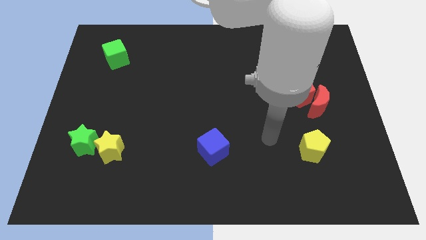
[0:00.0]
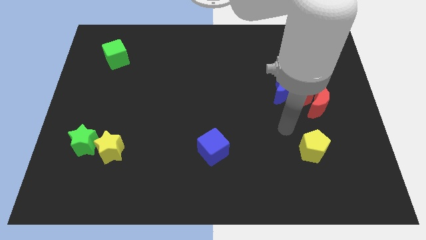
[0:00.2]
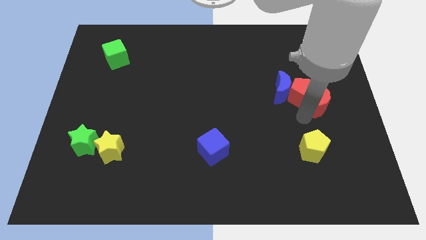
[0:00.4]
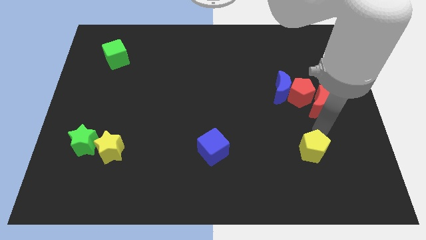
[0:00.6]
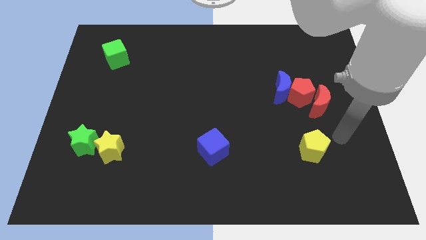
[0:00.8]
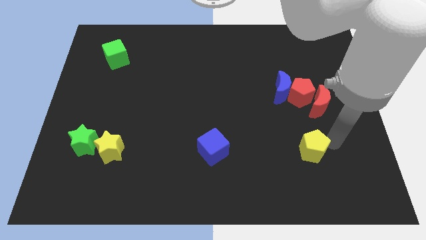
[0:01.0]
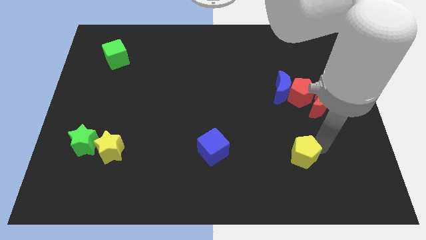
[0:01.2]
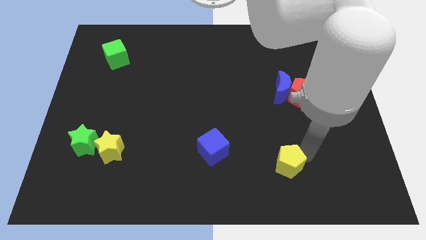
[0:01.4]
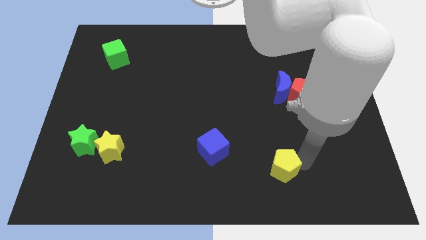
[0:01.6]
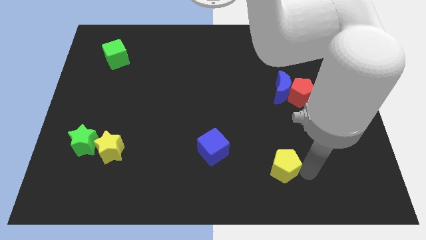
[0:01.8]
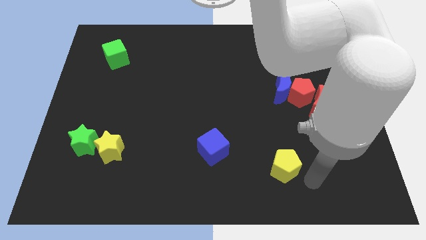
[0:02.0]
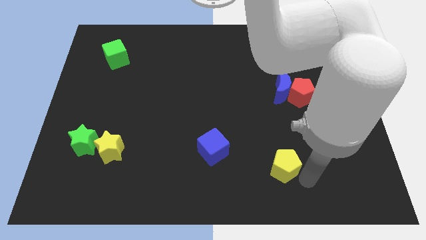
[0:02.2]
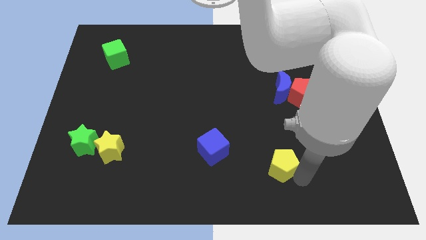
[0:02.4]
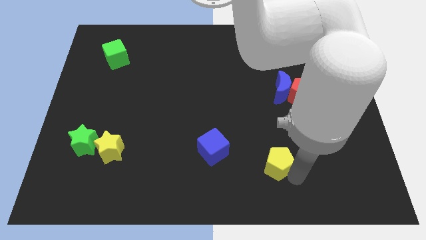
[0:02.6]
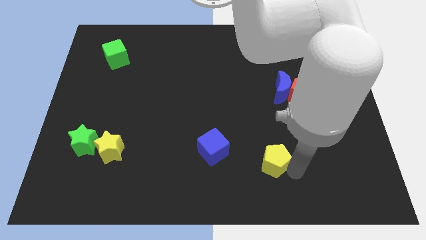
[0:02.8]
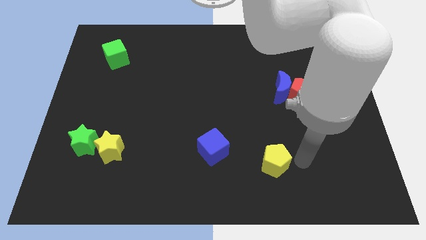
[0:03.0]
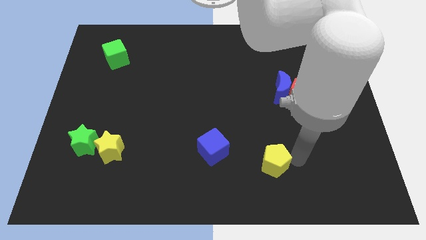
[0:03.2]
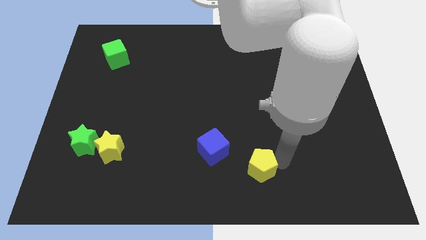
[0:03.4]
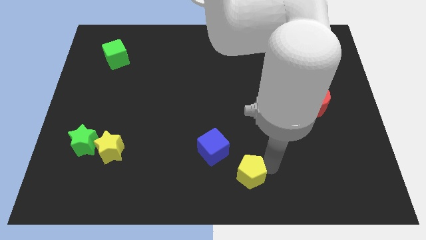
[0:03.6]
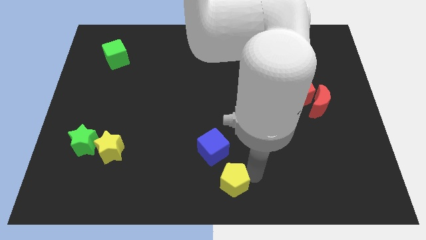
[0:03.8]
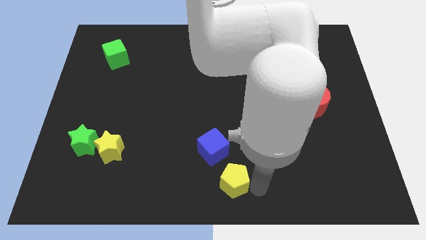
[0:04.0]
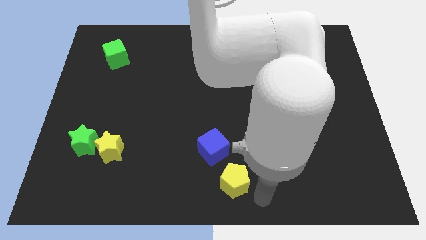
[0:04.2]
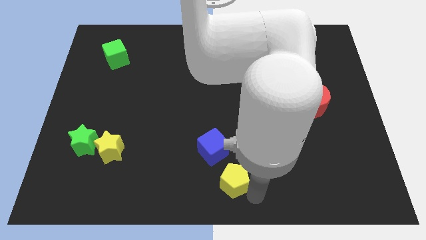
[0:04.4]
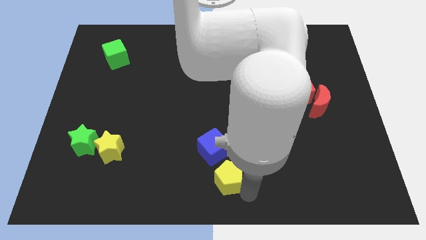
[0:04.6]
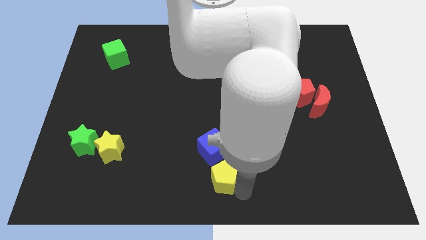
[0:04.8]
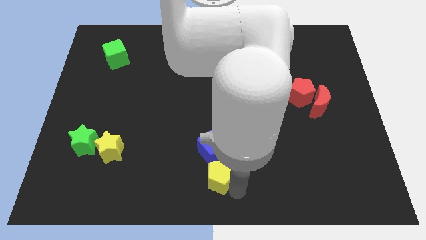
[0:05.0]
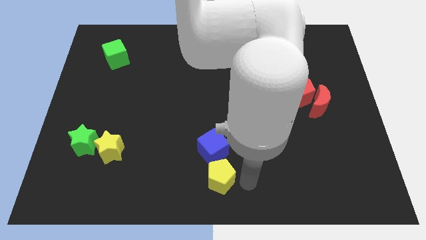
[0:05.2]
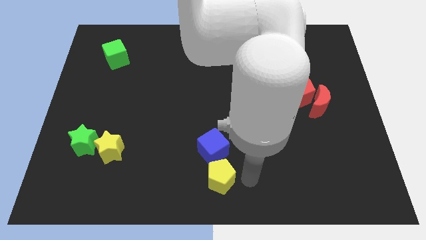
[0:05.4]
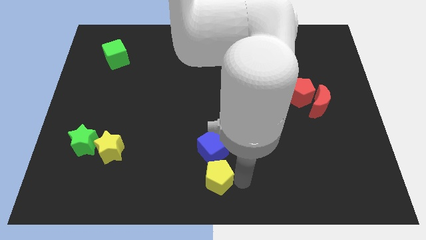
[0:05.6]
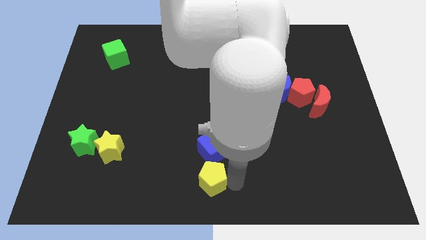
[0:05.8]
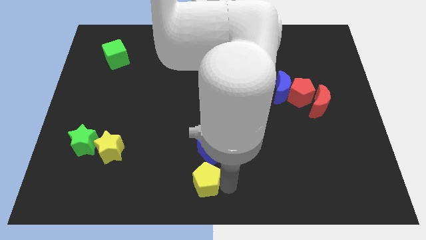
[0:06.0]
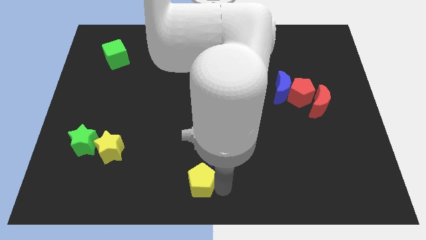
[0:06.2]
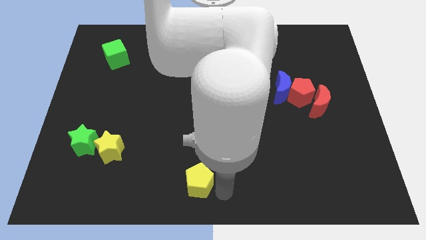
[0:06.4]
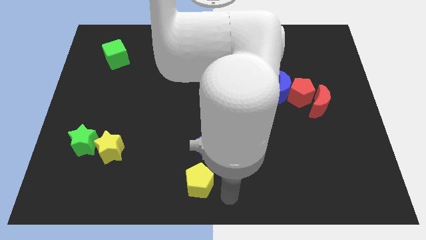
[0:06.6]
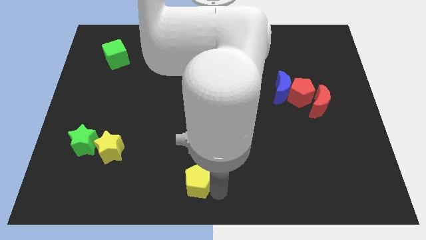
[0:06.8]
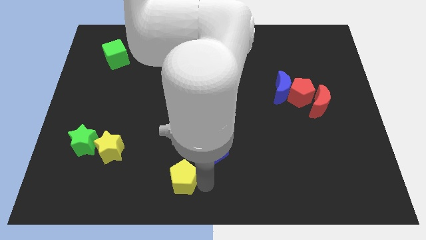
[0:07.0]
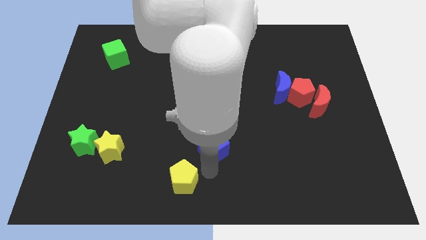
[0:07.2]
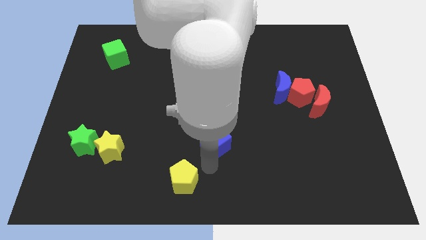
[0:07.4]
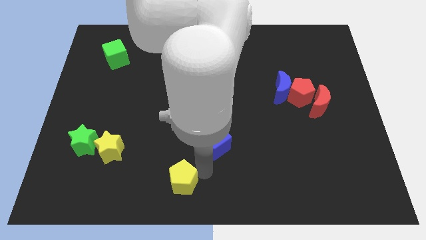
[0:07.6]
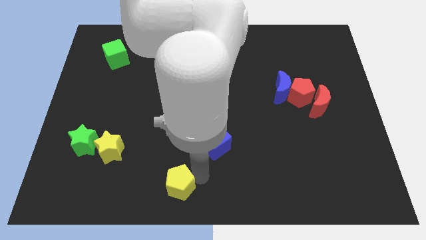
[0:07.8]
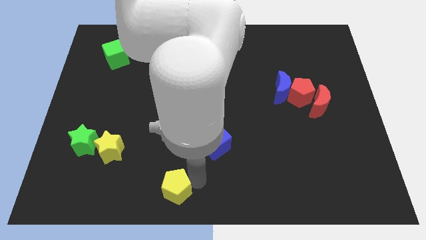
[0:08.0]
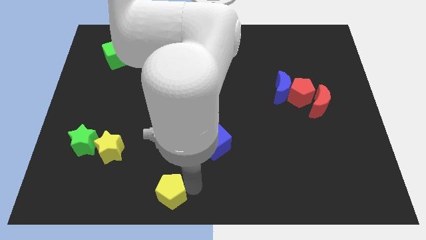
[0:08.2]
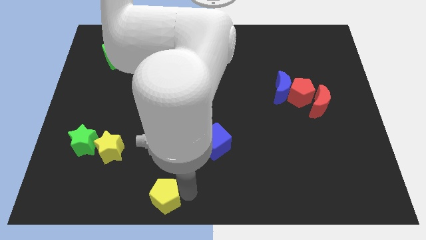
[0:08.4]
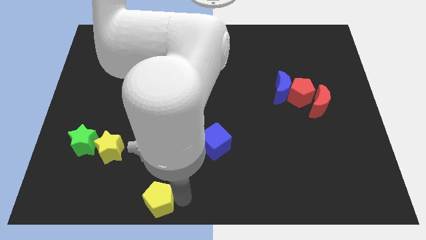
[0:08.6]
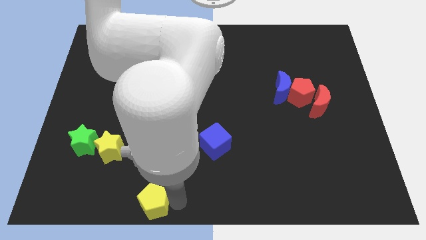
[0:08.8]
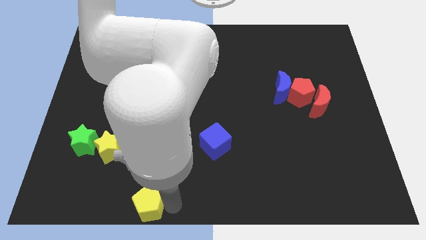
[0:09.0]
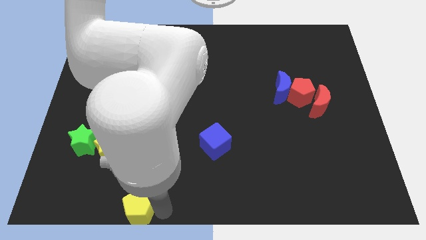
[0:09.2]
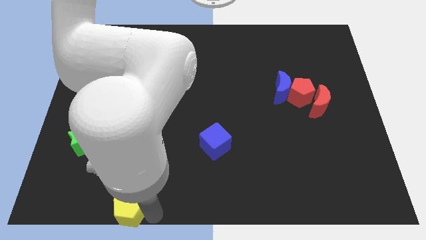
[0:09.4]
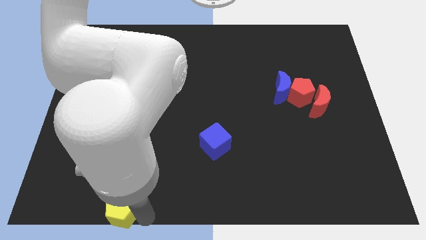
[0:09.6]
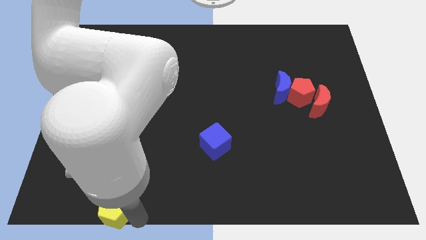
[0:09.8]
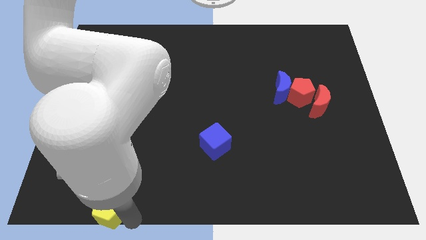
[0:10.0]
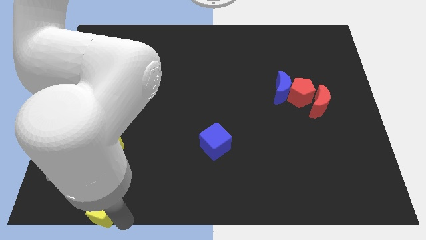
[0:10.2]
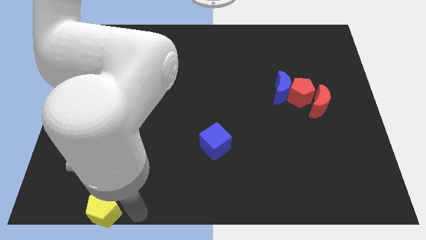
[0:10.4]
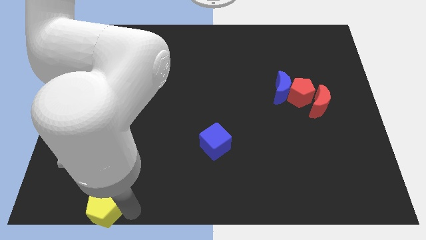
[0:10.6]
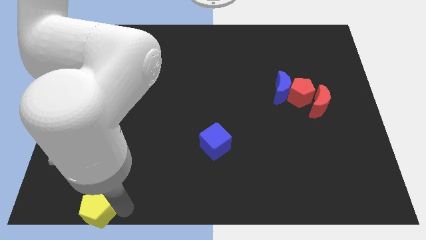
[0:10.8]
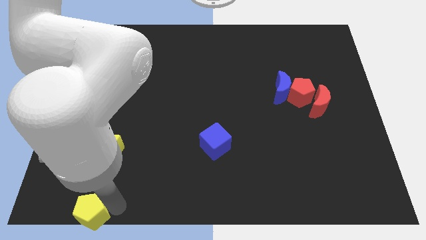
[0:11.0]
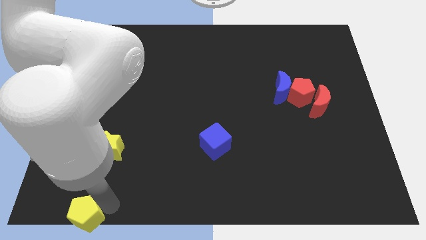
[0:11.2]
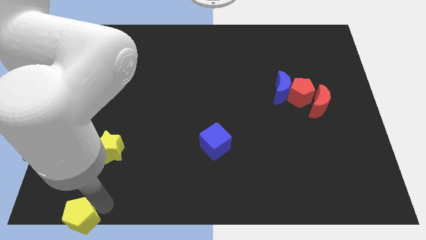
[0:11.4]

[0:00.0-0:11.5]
put the yellow pentagon to the bottom left
